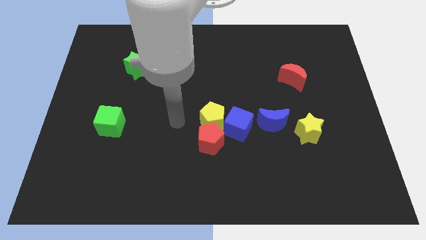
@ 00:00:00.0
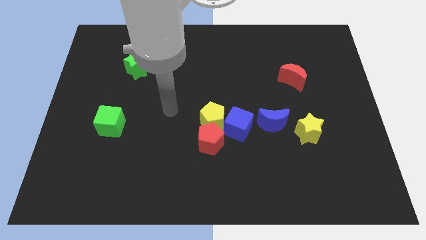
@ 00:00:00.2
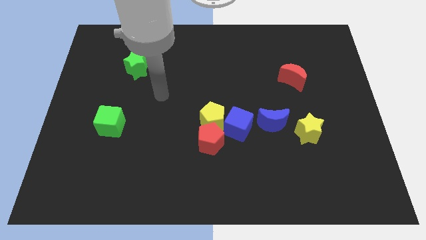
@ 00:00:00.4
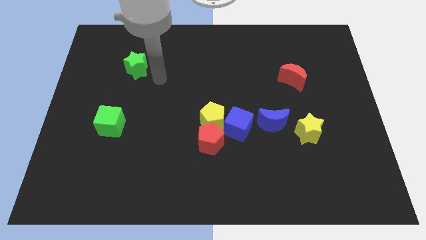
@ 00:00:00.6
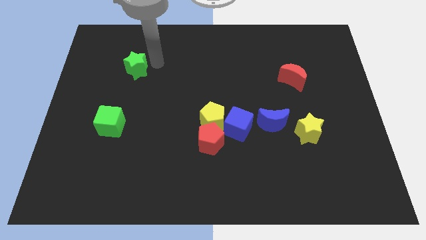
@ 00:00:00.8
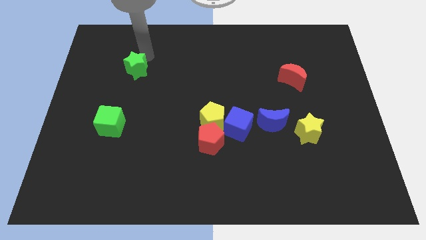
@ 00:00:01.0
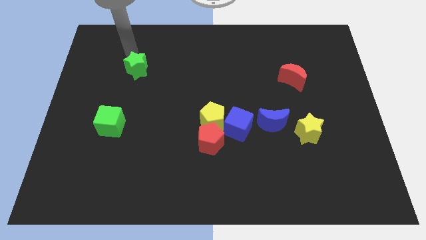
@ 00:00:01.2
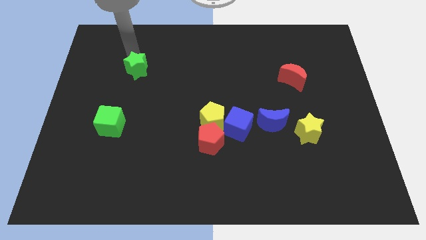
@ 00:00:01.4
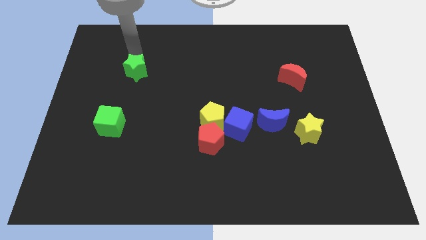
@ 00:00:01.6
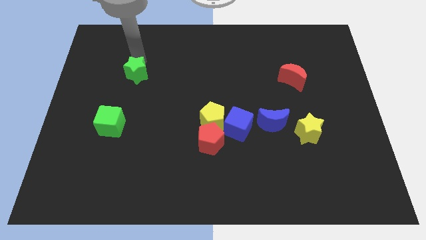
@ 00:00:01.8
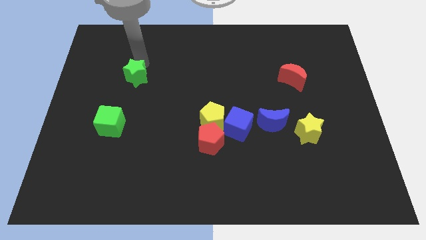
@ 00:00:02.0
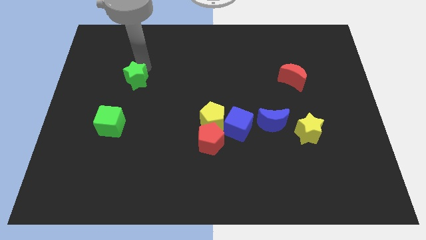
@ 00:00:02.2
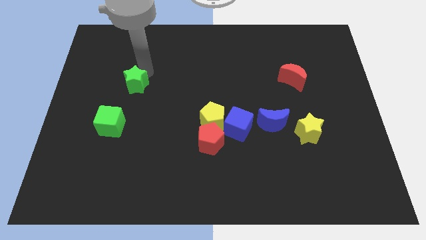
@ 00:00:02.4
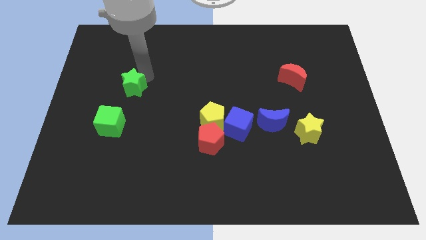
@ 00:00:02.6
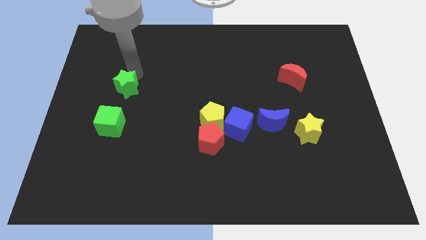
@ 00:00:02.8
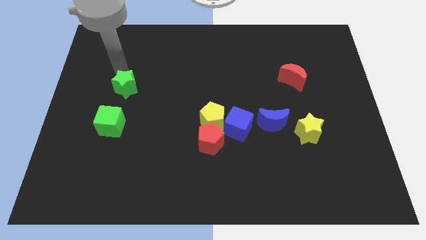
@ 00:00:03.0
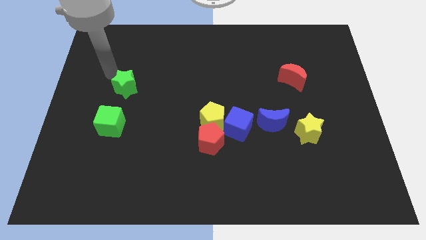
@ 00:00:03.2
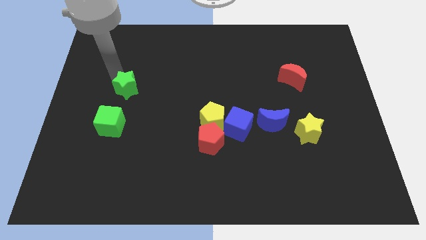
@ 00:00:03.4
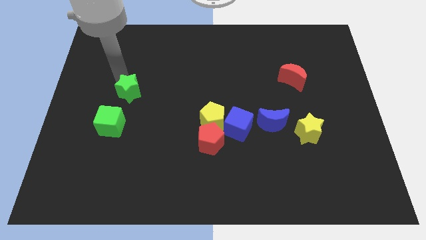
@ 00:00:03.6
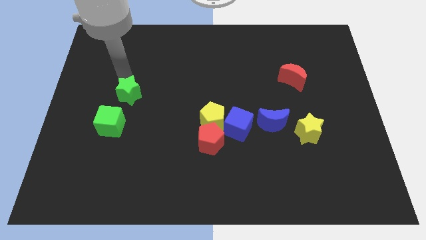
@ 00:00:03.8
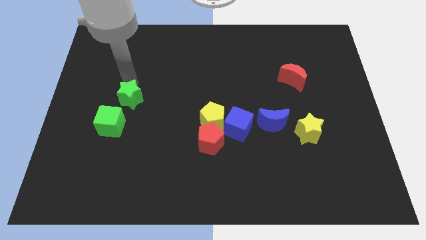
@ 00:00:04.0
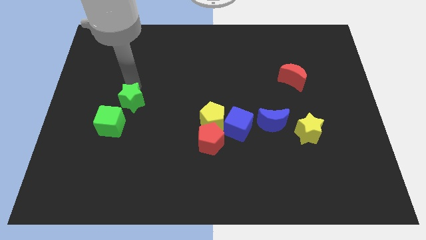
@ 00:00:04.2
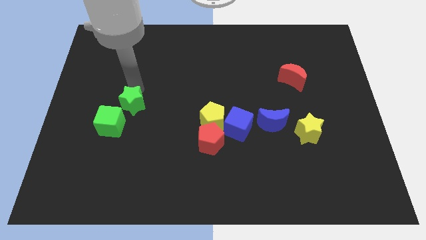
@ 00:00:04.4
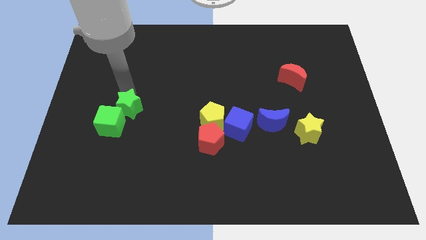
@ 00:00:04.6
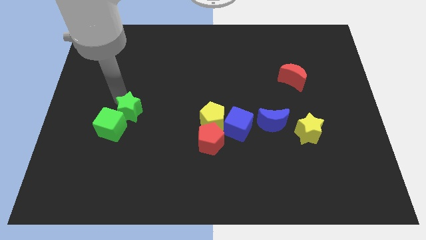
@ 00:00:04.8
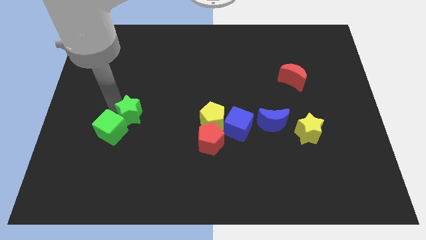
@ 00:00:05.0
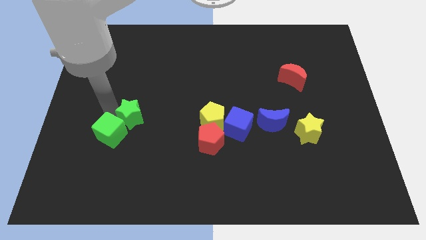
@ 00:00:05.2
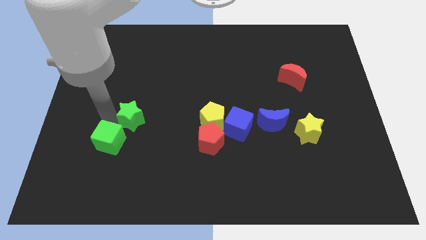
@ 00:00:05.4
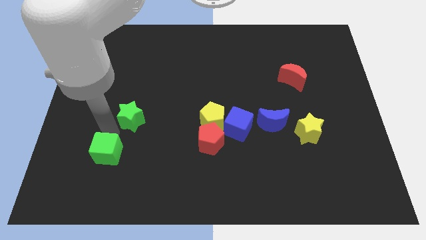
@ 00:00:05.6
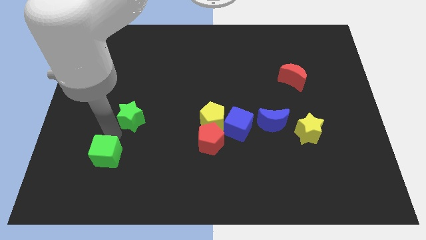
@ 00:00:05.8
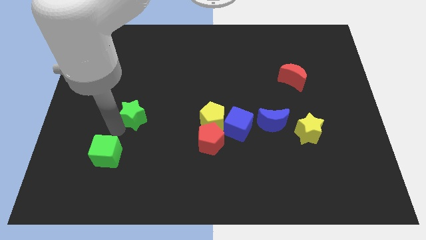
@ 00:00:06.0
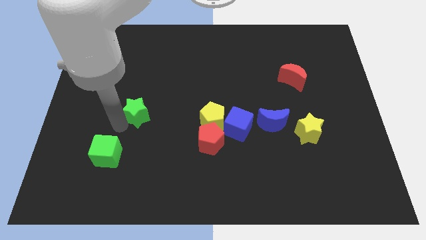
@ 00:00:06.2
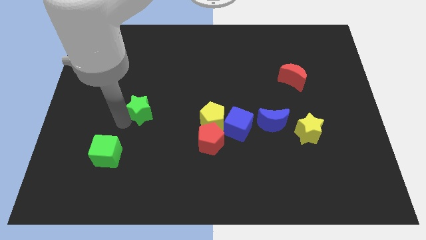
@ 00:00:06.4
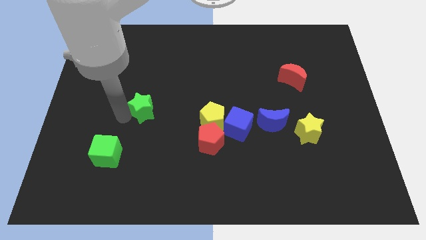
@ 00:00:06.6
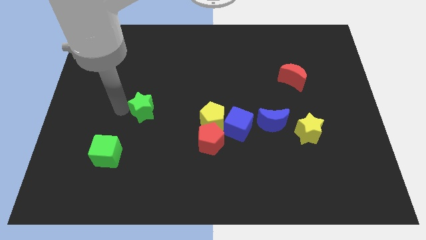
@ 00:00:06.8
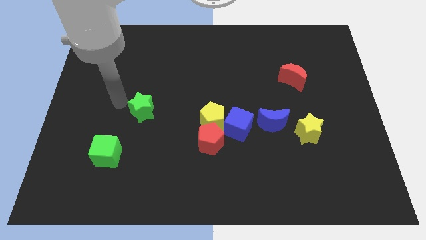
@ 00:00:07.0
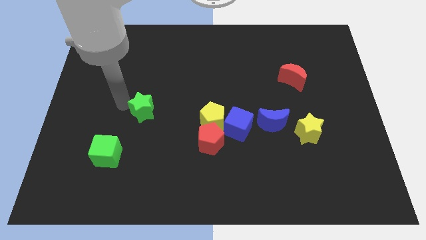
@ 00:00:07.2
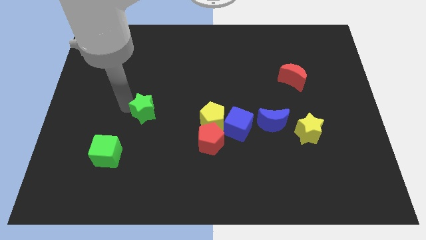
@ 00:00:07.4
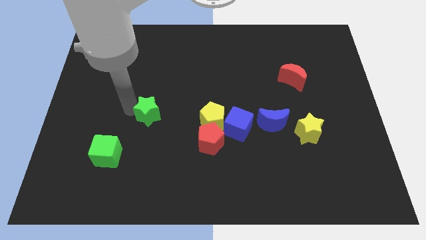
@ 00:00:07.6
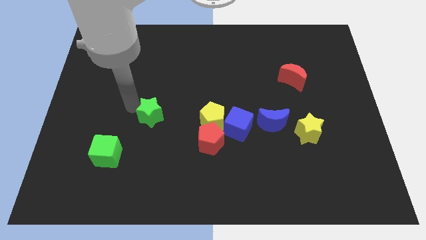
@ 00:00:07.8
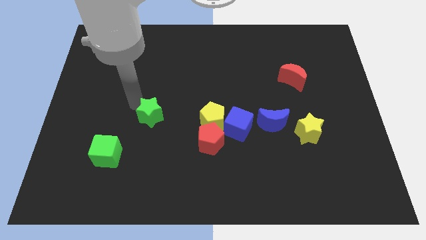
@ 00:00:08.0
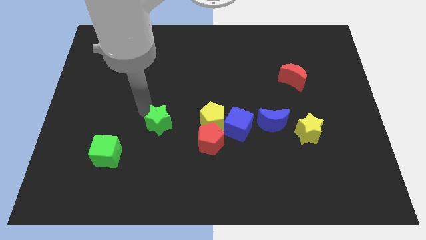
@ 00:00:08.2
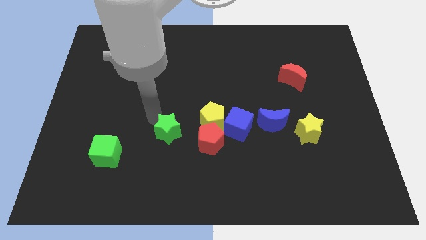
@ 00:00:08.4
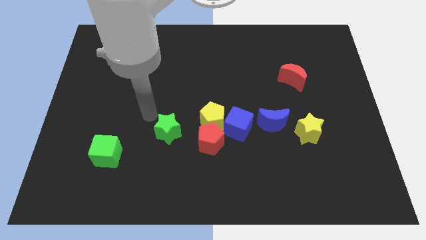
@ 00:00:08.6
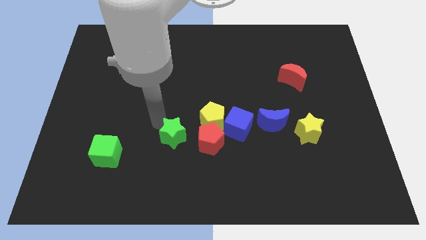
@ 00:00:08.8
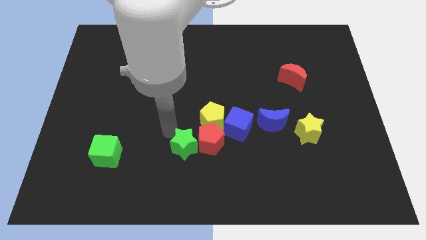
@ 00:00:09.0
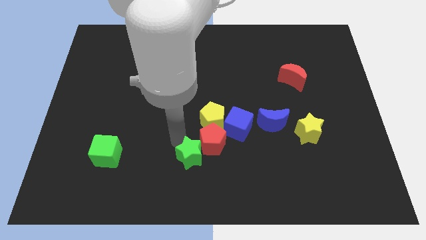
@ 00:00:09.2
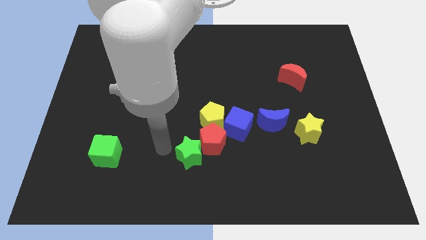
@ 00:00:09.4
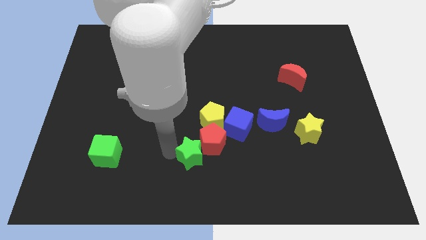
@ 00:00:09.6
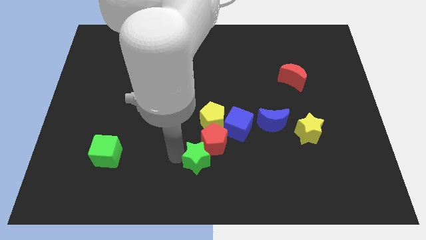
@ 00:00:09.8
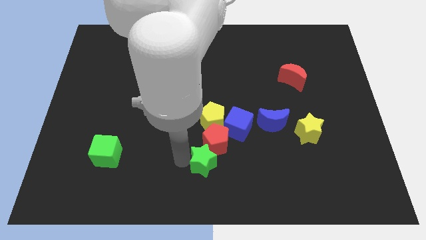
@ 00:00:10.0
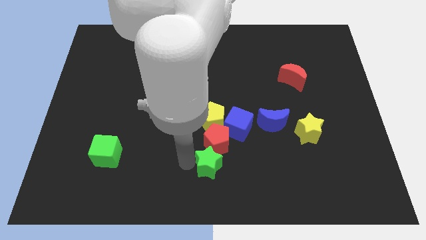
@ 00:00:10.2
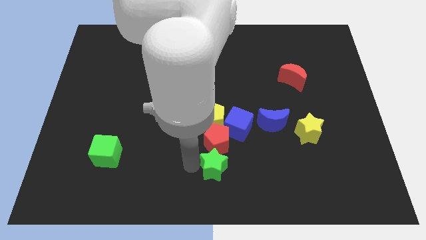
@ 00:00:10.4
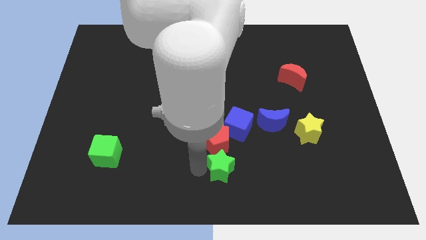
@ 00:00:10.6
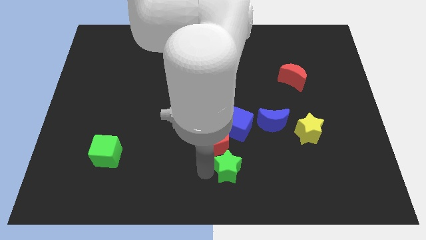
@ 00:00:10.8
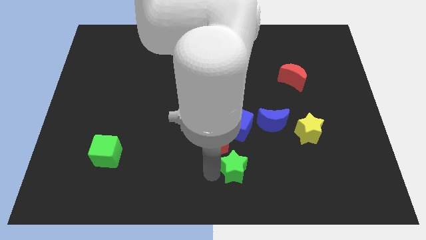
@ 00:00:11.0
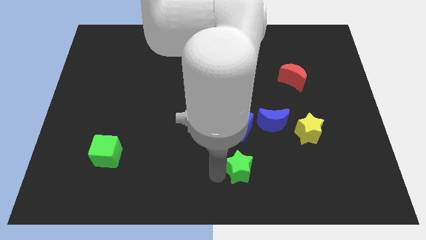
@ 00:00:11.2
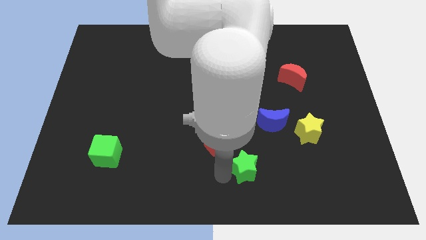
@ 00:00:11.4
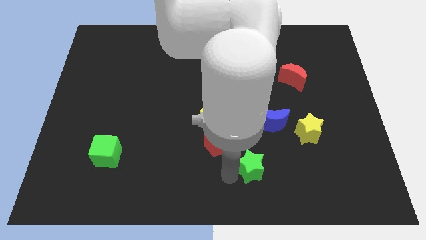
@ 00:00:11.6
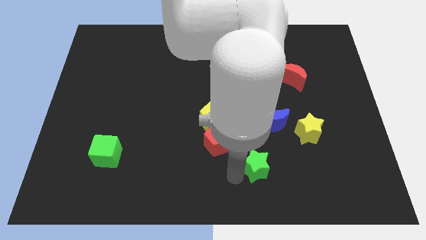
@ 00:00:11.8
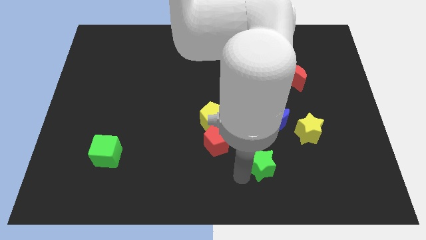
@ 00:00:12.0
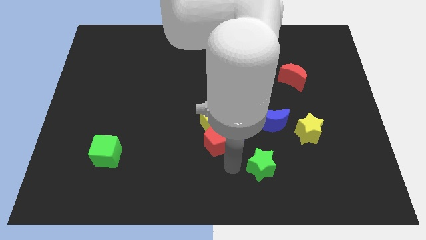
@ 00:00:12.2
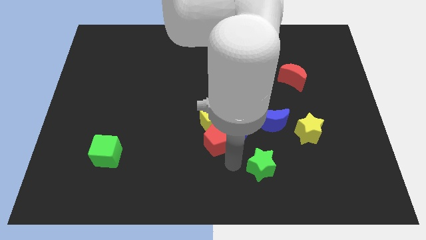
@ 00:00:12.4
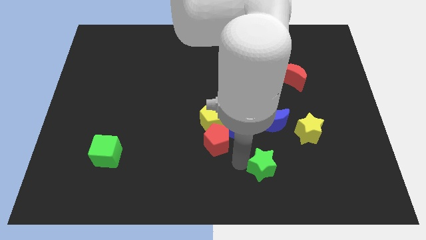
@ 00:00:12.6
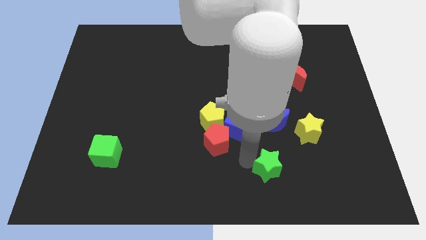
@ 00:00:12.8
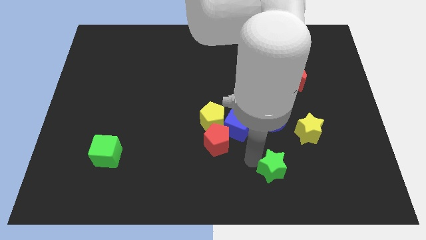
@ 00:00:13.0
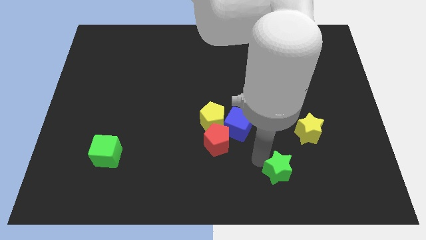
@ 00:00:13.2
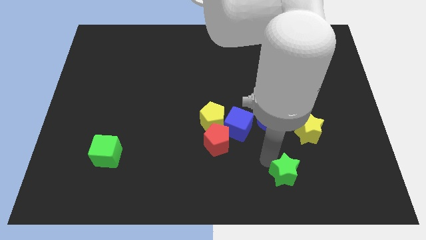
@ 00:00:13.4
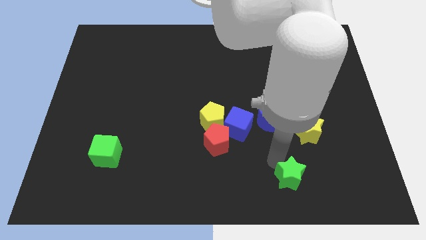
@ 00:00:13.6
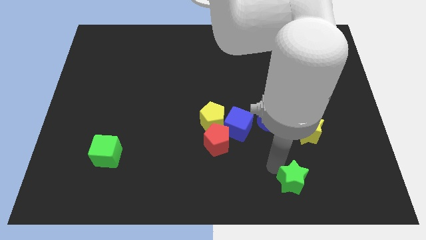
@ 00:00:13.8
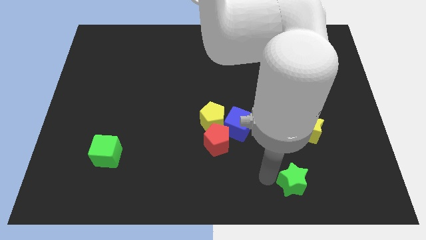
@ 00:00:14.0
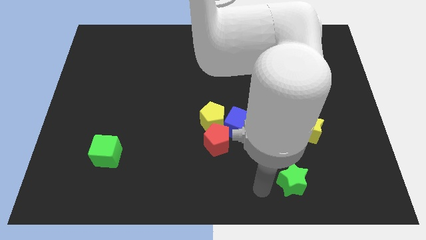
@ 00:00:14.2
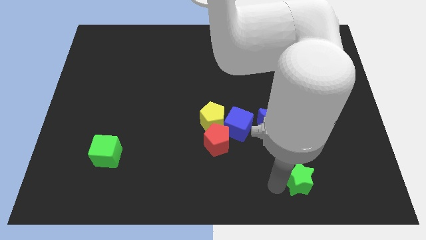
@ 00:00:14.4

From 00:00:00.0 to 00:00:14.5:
slide the green star below the yellow star
